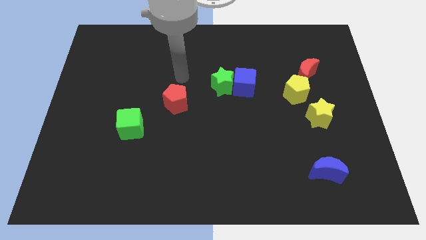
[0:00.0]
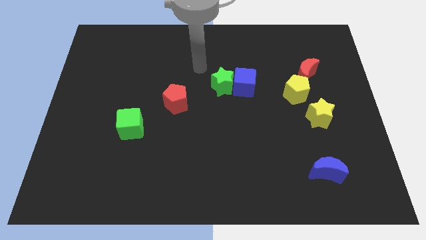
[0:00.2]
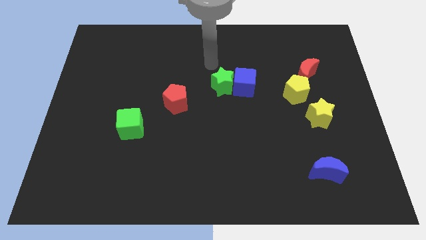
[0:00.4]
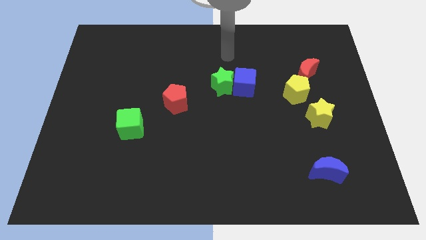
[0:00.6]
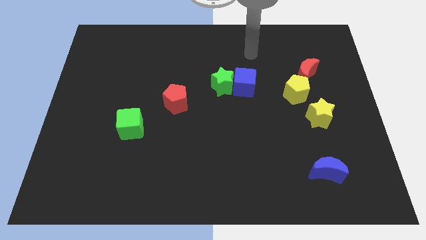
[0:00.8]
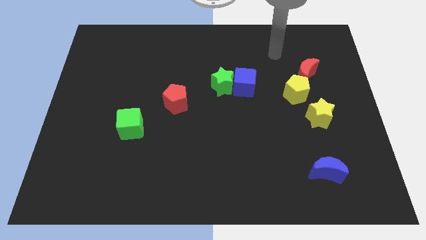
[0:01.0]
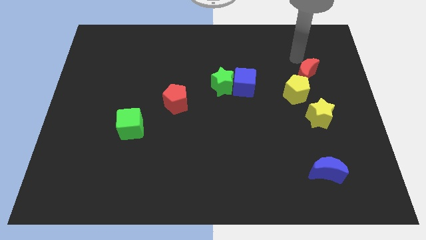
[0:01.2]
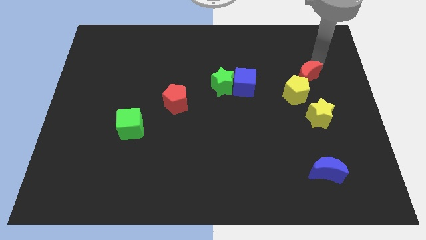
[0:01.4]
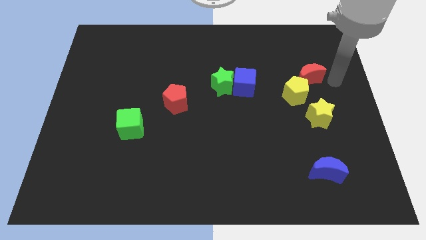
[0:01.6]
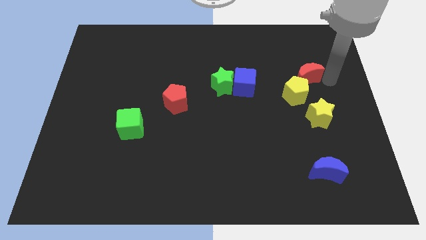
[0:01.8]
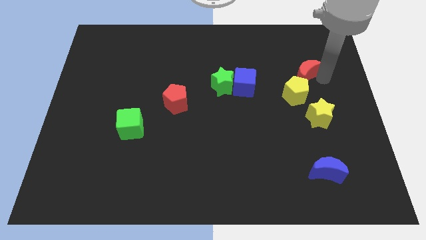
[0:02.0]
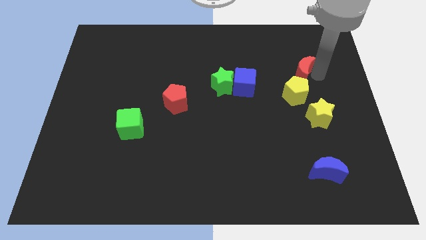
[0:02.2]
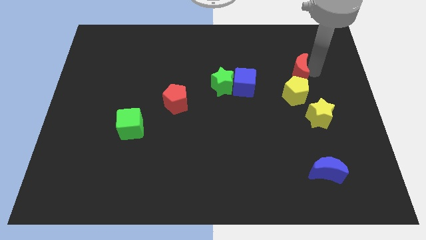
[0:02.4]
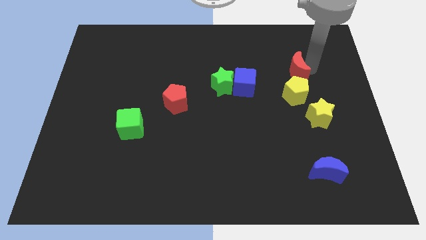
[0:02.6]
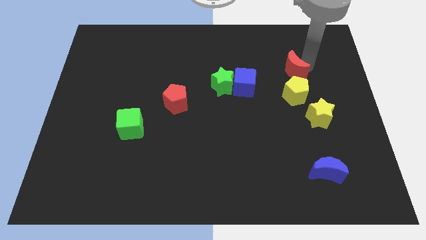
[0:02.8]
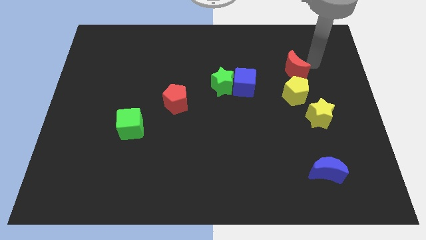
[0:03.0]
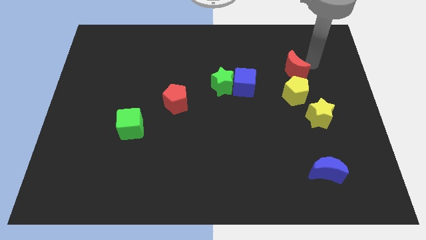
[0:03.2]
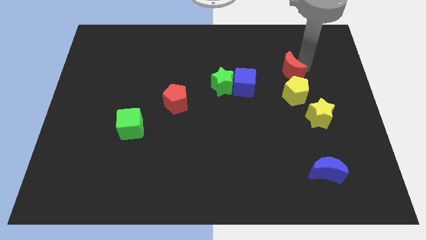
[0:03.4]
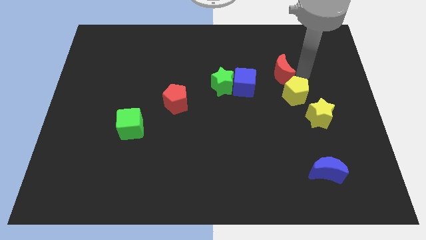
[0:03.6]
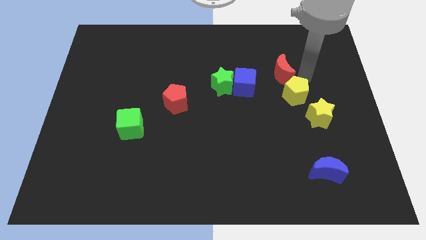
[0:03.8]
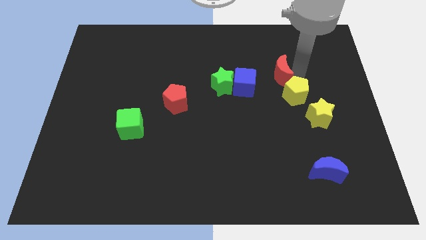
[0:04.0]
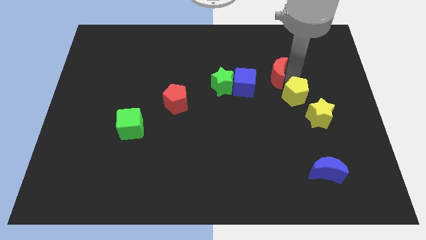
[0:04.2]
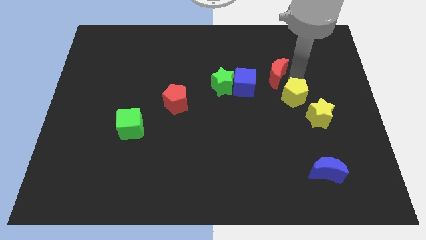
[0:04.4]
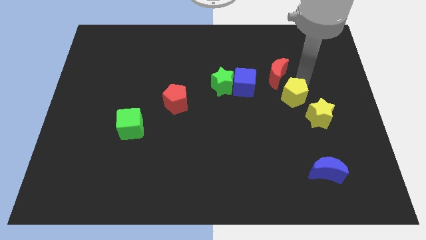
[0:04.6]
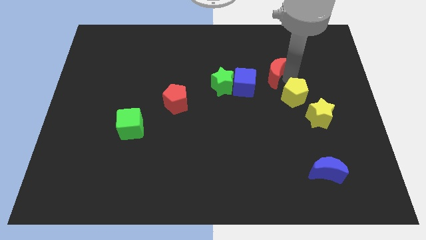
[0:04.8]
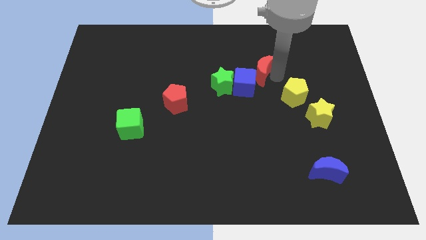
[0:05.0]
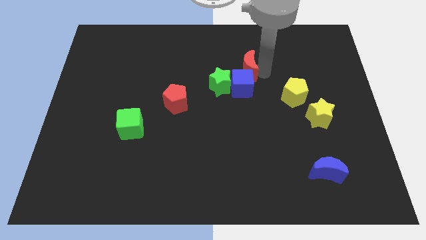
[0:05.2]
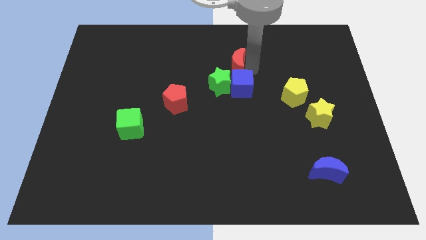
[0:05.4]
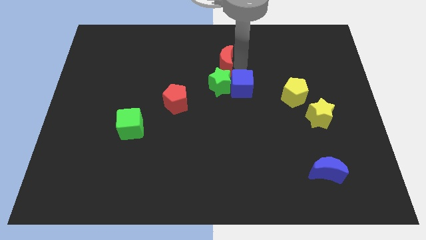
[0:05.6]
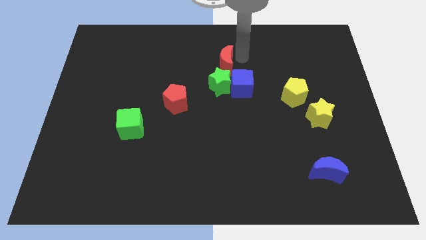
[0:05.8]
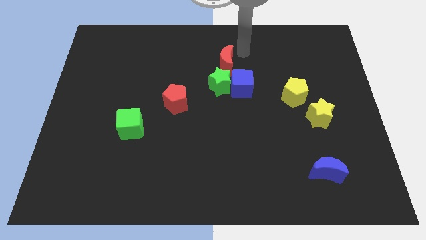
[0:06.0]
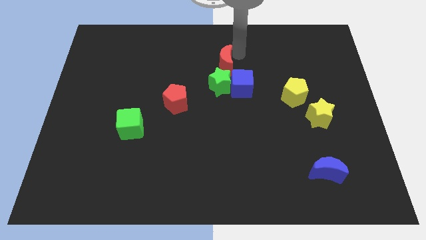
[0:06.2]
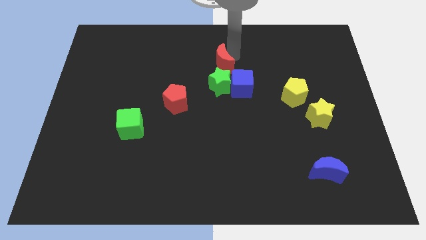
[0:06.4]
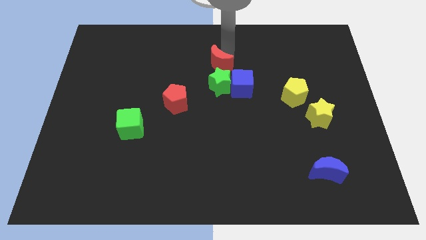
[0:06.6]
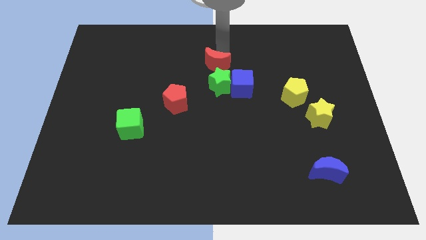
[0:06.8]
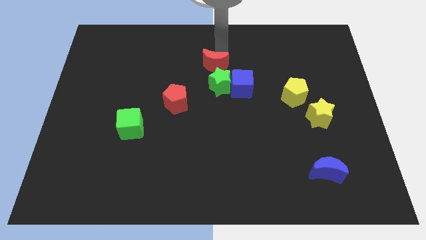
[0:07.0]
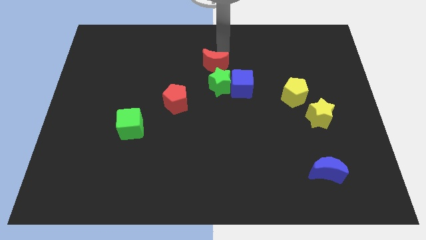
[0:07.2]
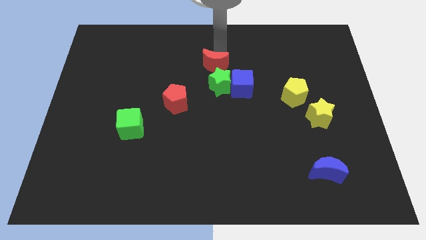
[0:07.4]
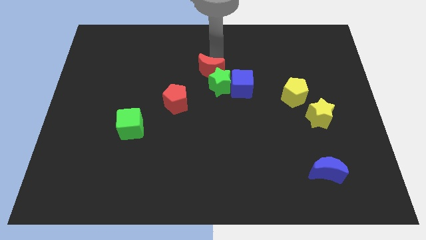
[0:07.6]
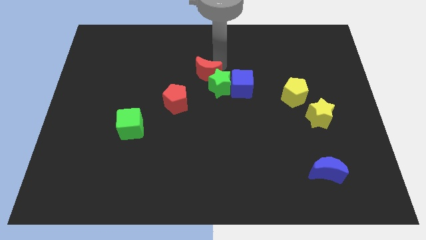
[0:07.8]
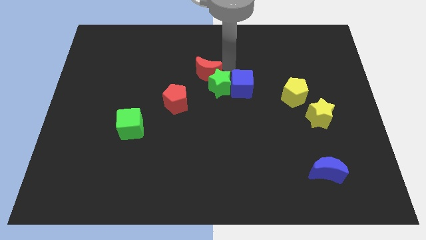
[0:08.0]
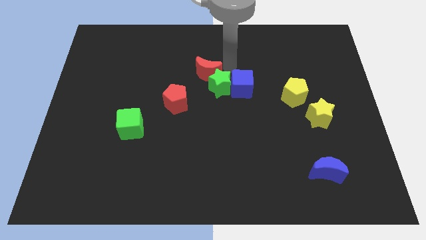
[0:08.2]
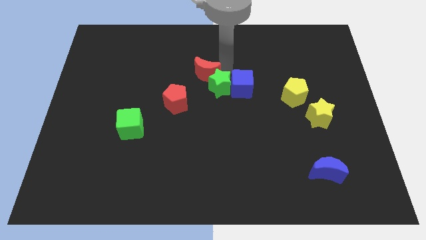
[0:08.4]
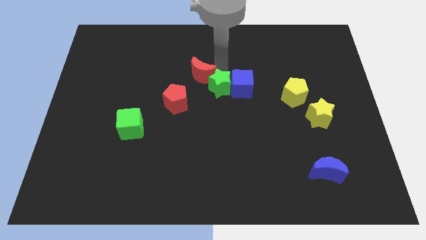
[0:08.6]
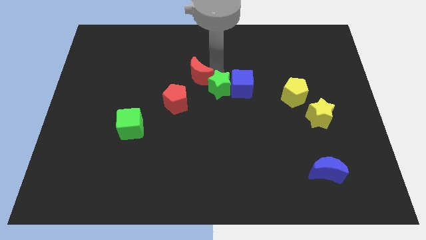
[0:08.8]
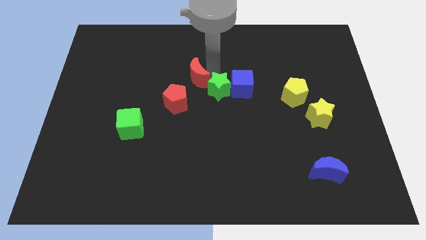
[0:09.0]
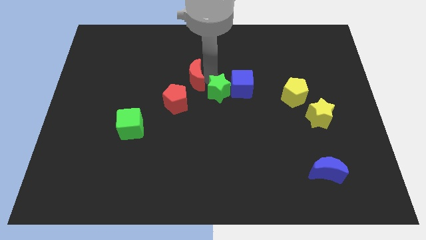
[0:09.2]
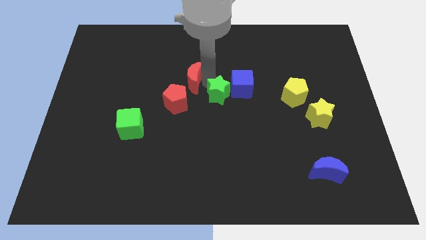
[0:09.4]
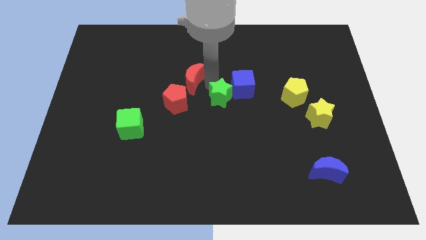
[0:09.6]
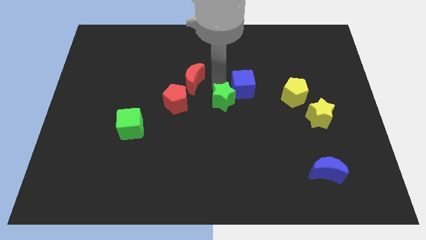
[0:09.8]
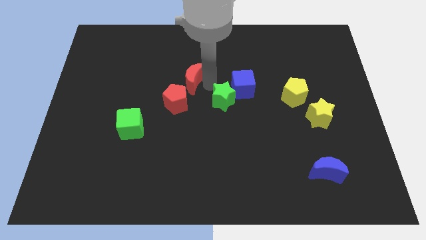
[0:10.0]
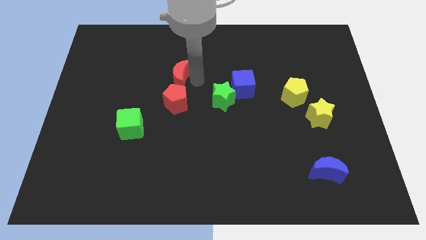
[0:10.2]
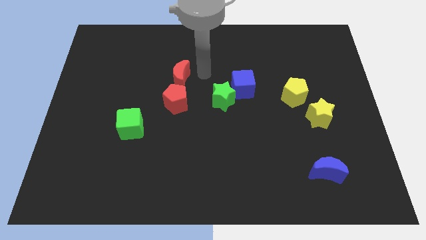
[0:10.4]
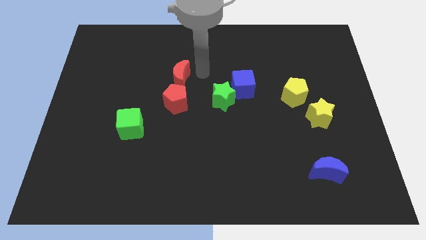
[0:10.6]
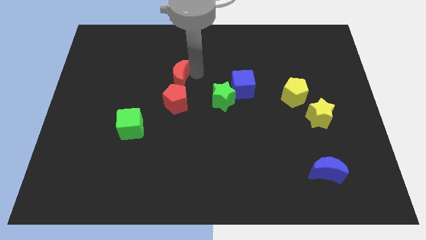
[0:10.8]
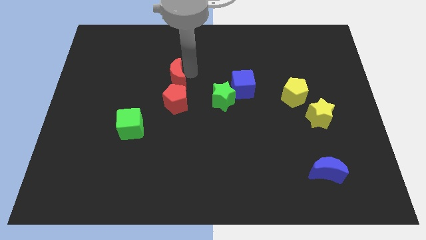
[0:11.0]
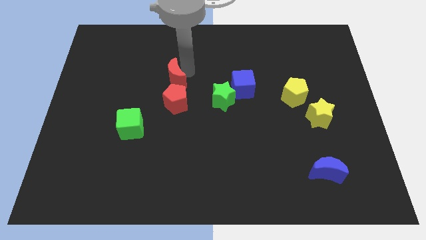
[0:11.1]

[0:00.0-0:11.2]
move the red moon diagonally up and to the left of the red pentagon

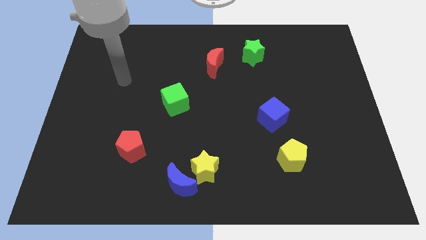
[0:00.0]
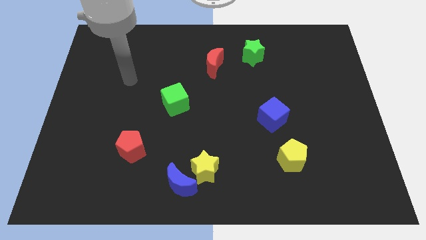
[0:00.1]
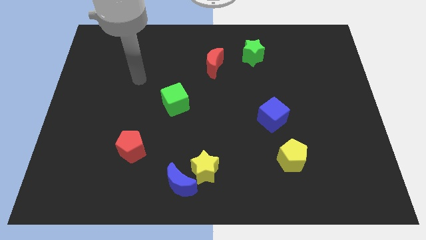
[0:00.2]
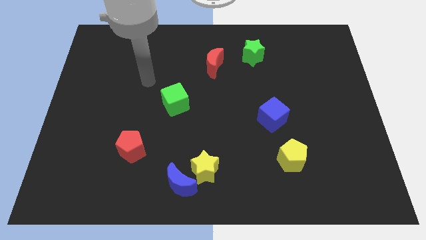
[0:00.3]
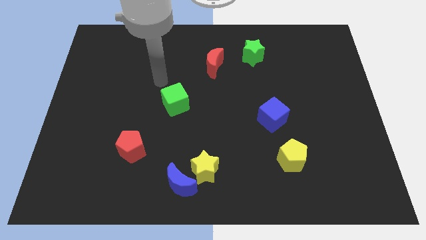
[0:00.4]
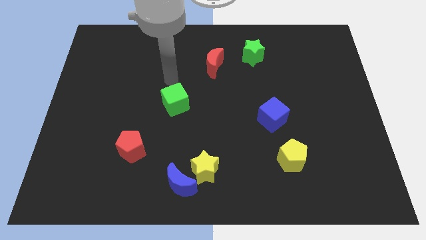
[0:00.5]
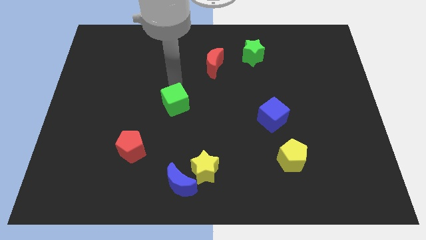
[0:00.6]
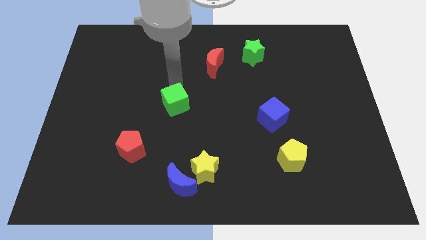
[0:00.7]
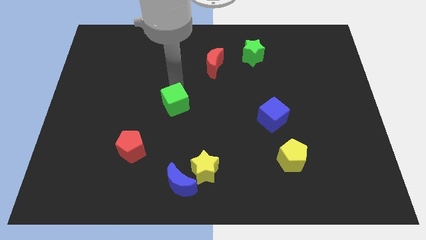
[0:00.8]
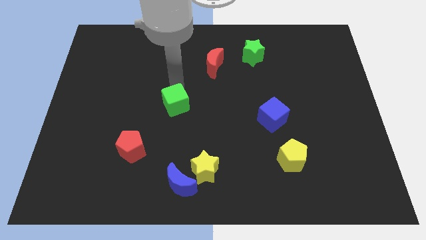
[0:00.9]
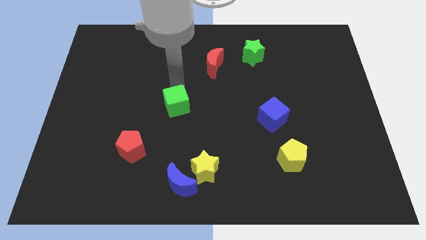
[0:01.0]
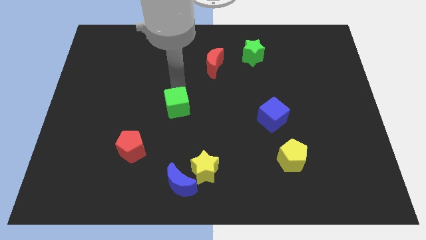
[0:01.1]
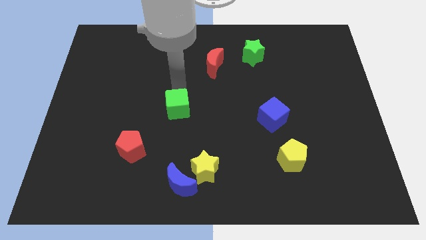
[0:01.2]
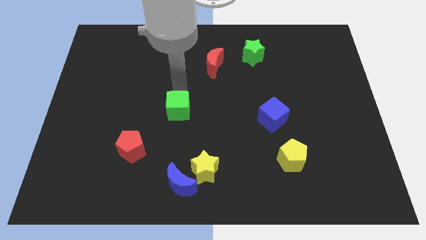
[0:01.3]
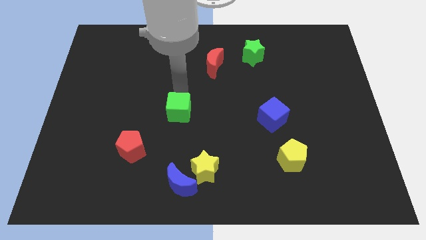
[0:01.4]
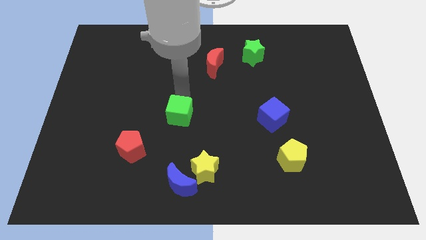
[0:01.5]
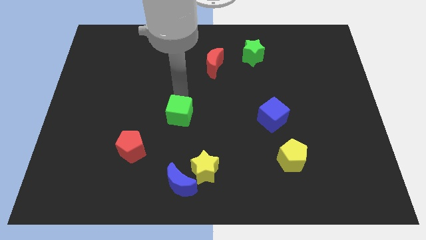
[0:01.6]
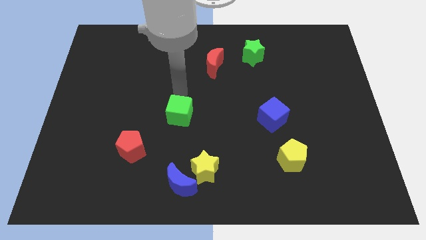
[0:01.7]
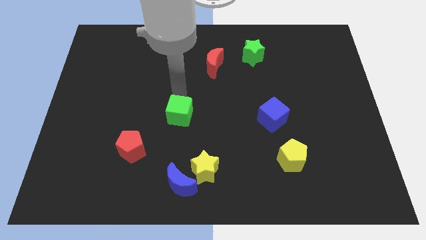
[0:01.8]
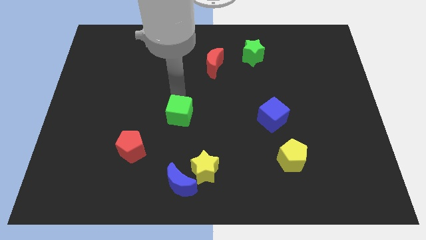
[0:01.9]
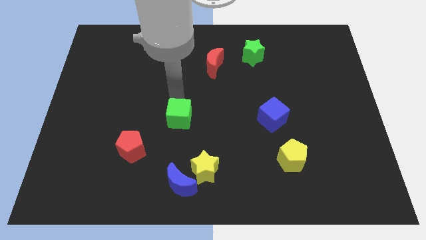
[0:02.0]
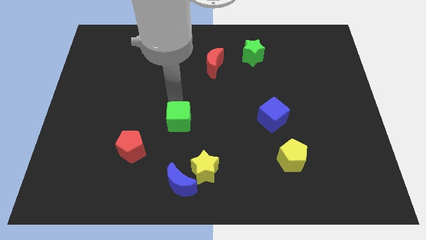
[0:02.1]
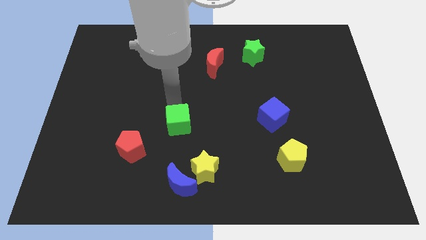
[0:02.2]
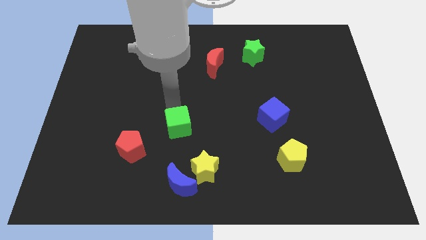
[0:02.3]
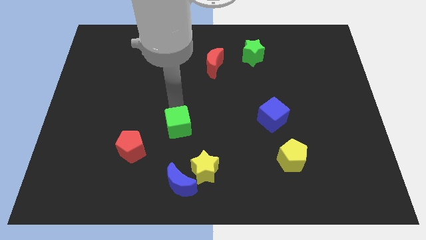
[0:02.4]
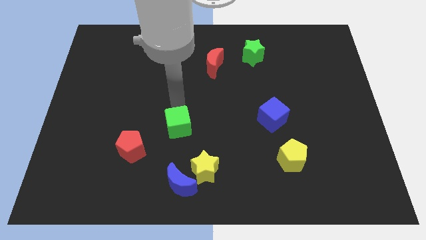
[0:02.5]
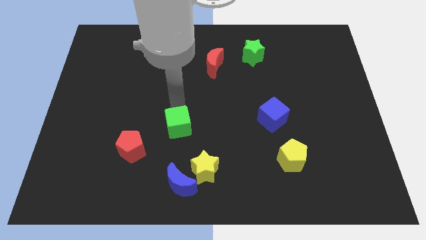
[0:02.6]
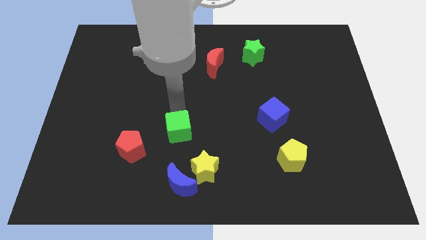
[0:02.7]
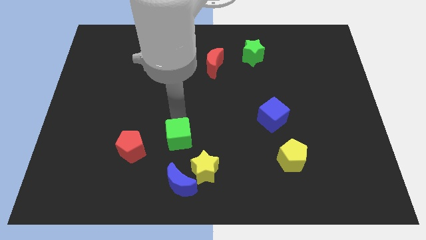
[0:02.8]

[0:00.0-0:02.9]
put the green cube just right of the red pentagon
